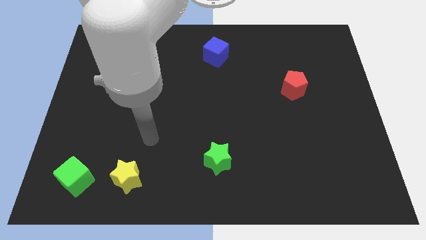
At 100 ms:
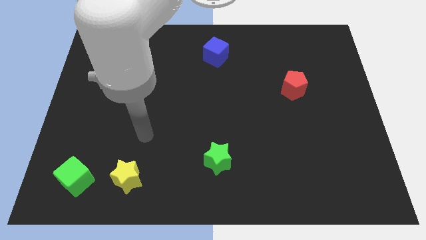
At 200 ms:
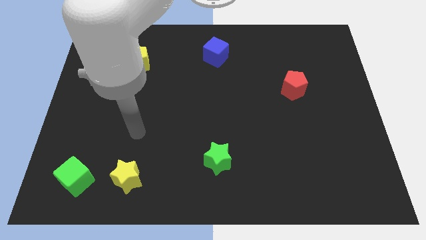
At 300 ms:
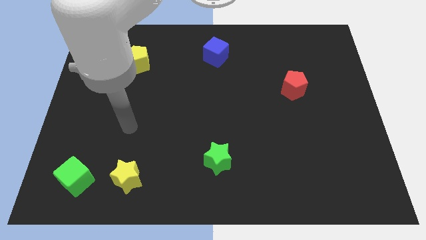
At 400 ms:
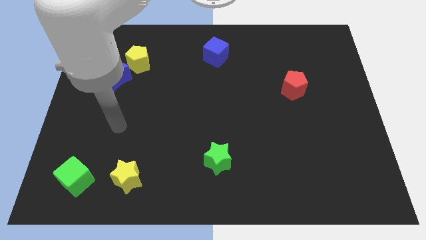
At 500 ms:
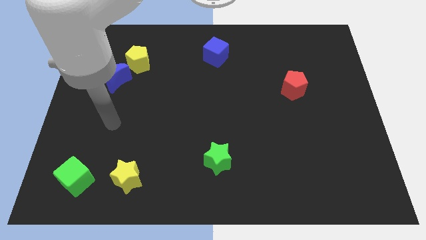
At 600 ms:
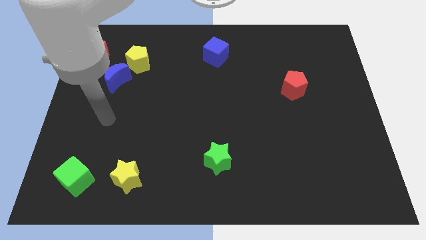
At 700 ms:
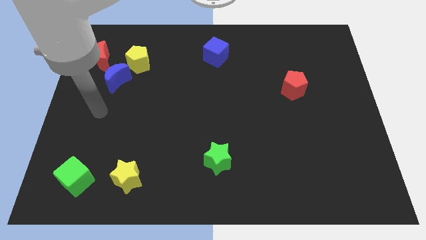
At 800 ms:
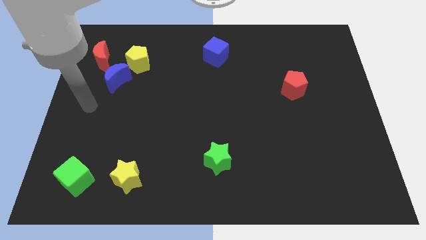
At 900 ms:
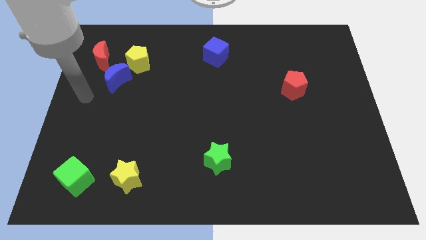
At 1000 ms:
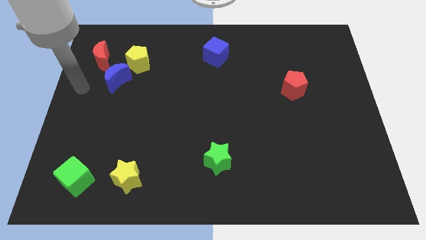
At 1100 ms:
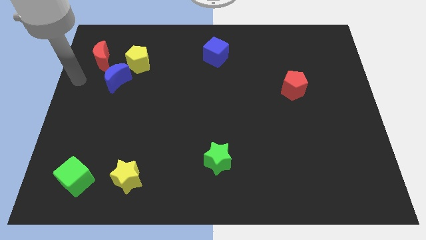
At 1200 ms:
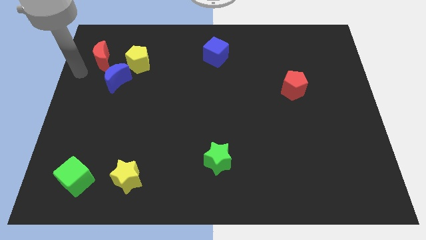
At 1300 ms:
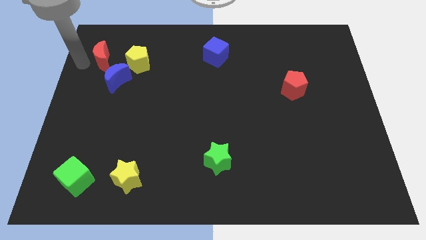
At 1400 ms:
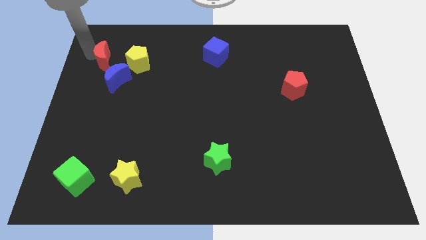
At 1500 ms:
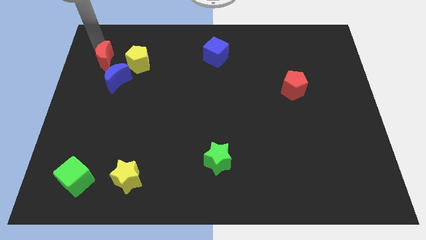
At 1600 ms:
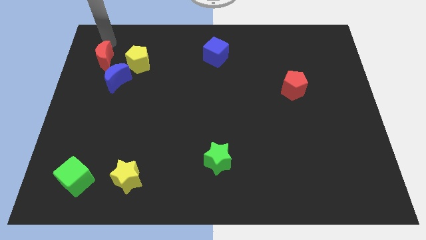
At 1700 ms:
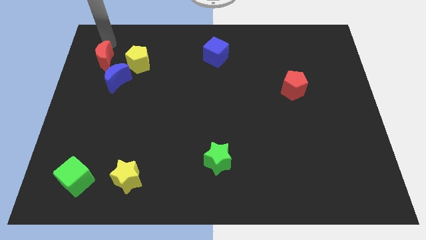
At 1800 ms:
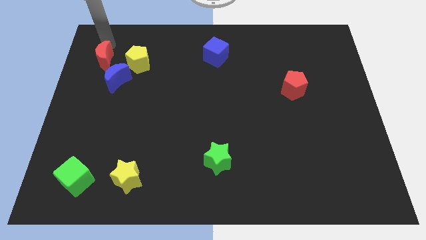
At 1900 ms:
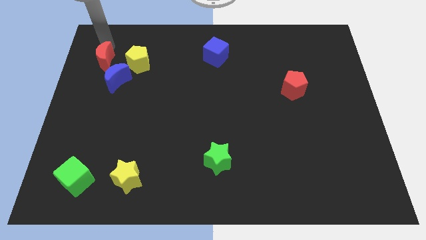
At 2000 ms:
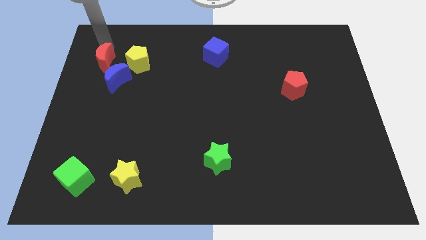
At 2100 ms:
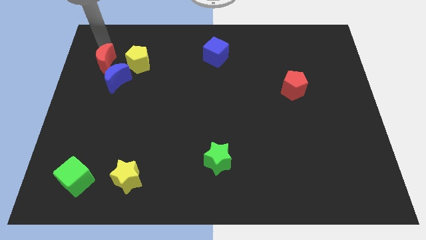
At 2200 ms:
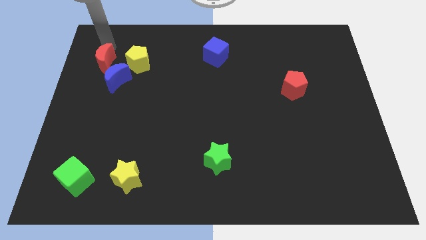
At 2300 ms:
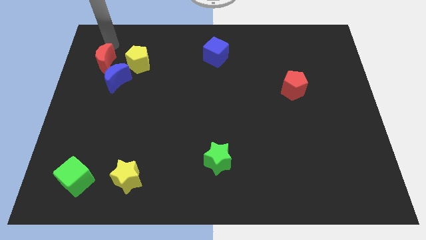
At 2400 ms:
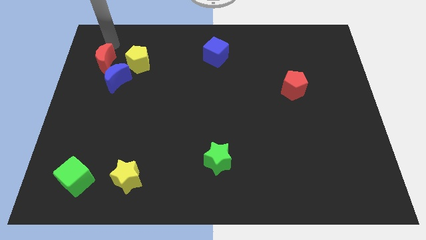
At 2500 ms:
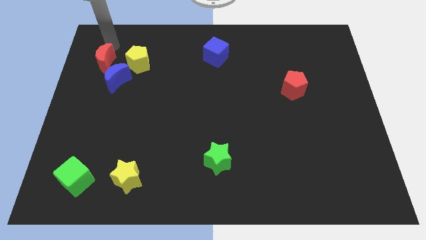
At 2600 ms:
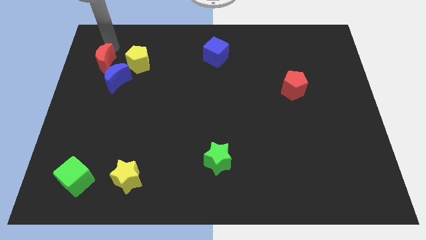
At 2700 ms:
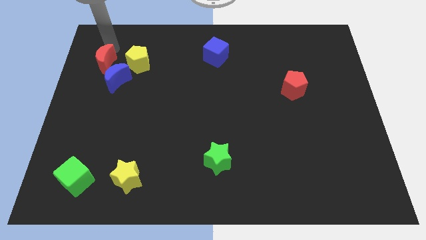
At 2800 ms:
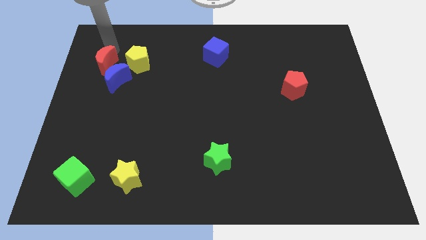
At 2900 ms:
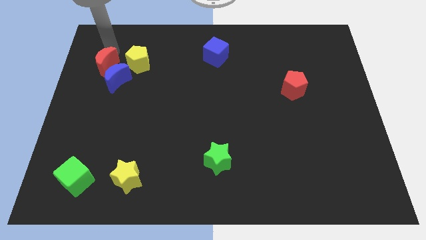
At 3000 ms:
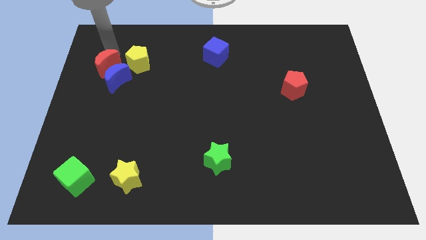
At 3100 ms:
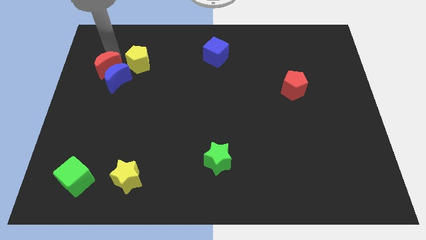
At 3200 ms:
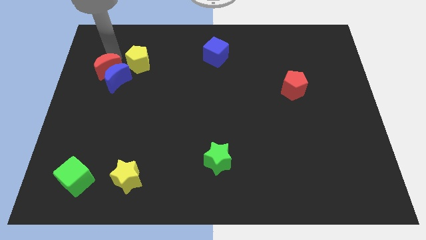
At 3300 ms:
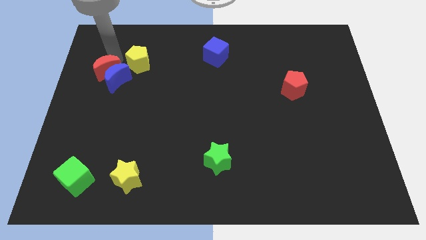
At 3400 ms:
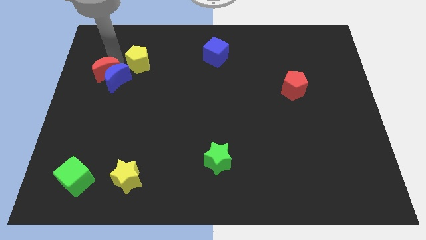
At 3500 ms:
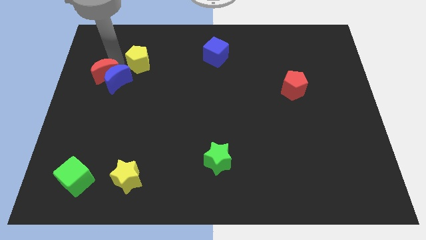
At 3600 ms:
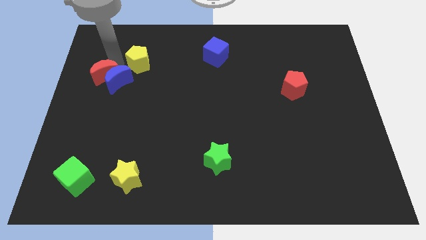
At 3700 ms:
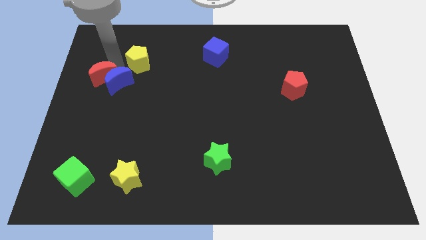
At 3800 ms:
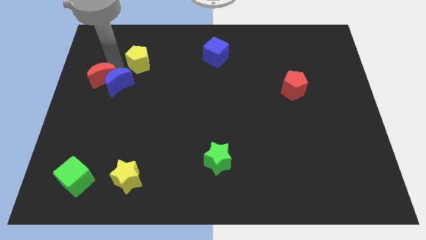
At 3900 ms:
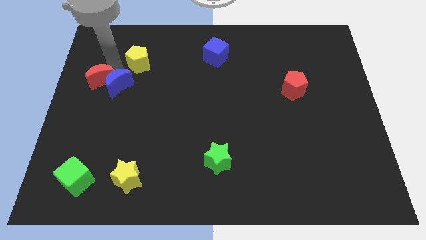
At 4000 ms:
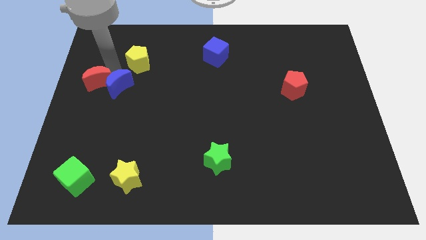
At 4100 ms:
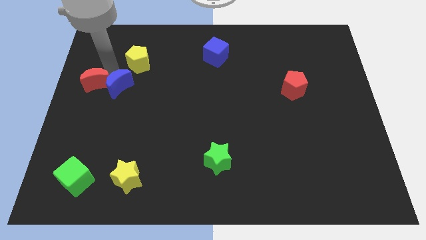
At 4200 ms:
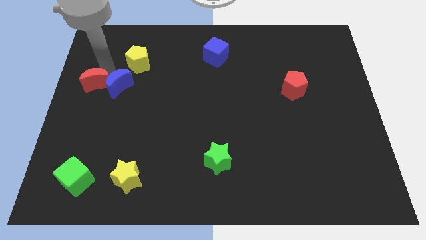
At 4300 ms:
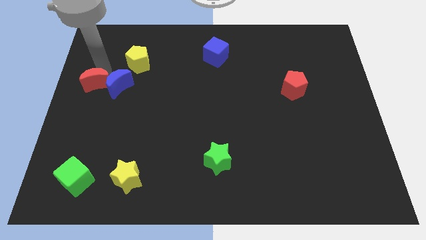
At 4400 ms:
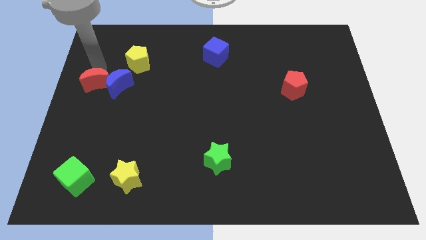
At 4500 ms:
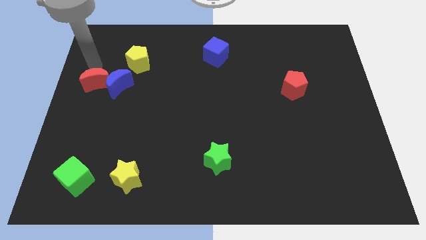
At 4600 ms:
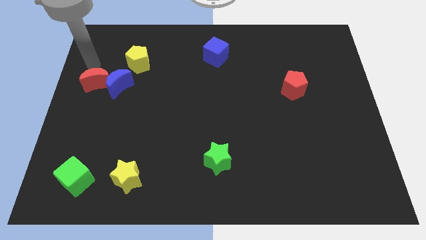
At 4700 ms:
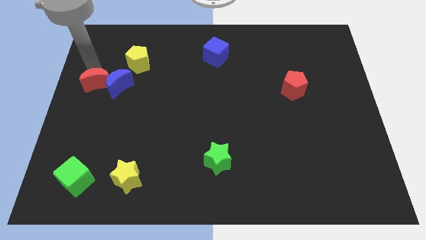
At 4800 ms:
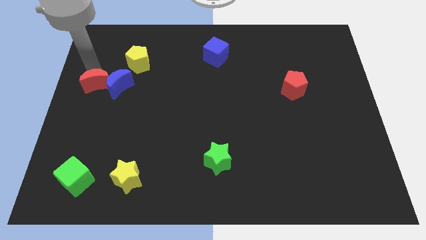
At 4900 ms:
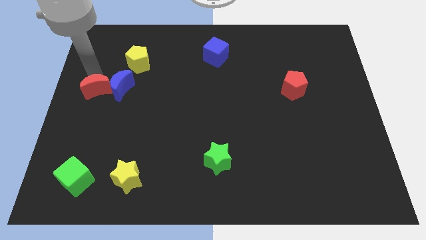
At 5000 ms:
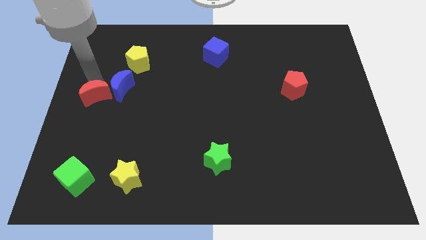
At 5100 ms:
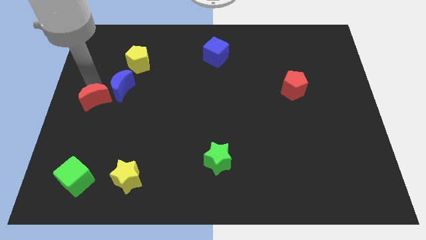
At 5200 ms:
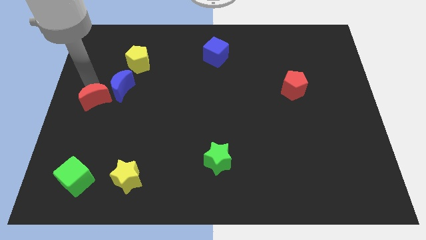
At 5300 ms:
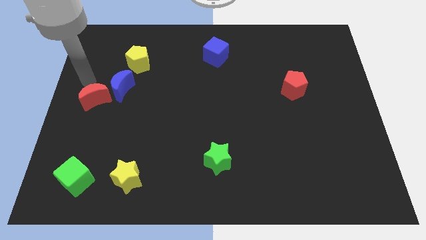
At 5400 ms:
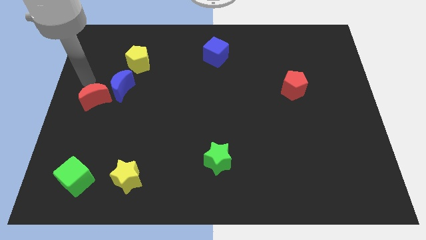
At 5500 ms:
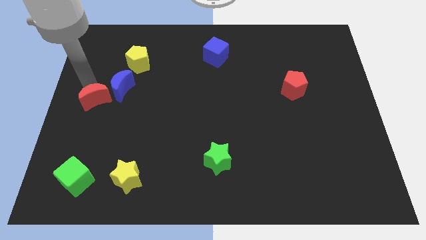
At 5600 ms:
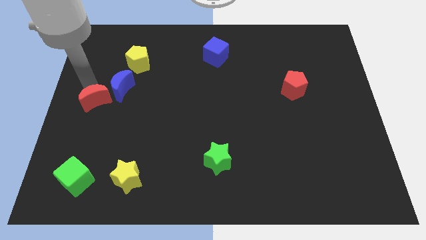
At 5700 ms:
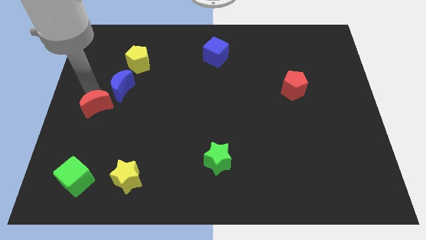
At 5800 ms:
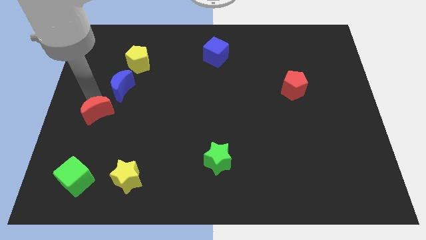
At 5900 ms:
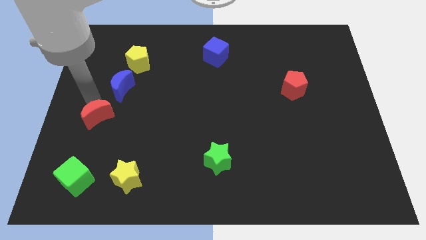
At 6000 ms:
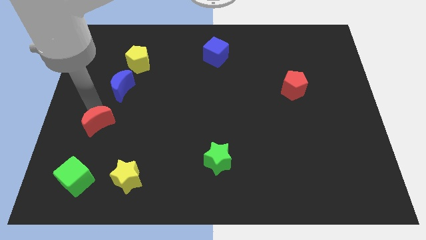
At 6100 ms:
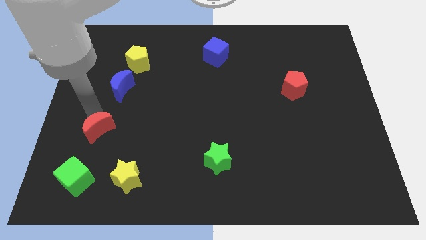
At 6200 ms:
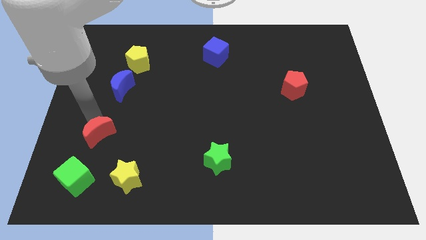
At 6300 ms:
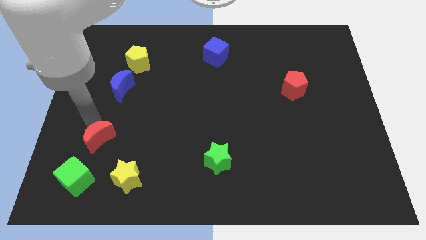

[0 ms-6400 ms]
push the red moon to the top left of the yellow star

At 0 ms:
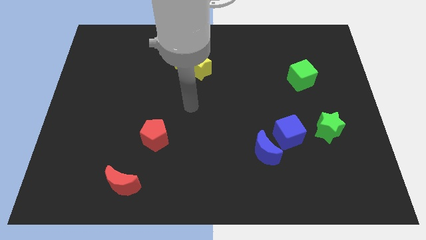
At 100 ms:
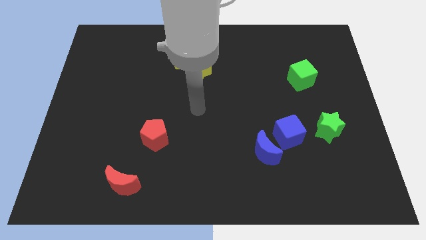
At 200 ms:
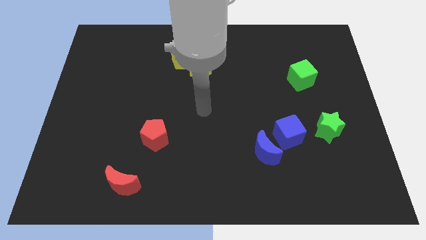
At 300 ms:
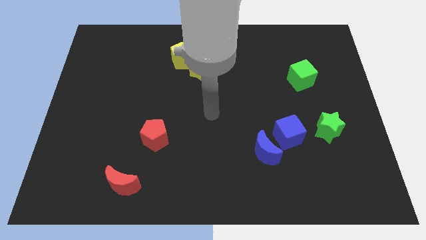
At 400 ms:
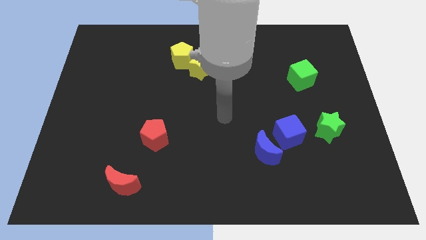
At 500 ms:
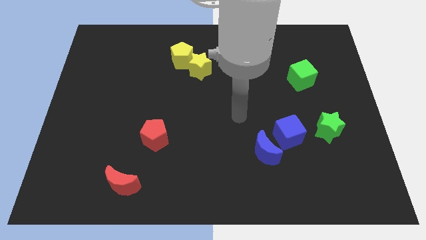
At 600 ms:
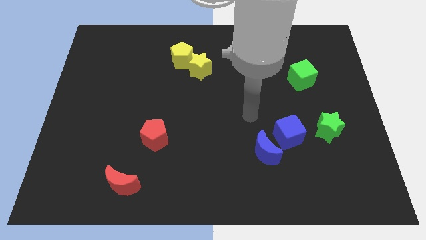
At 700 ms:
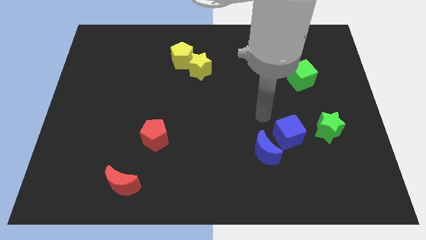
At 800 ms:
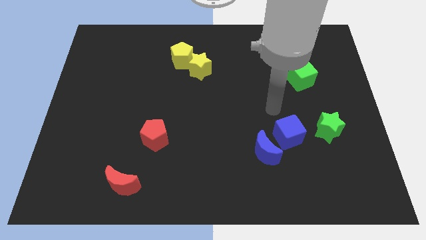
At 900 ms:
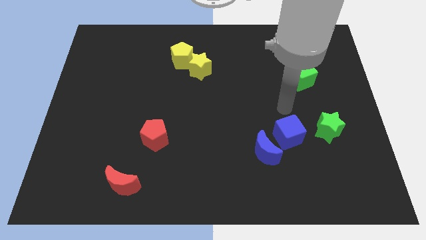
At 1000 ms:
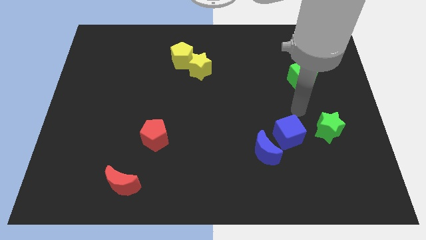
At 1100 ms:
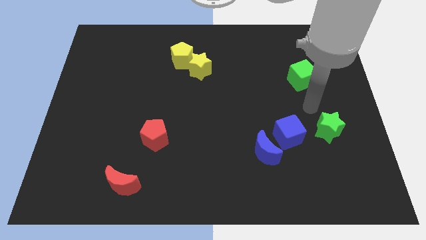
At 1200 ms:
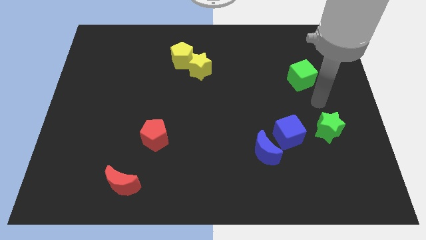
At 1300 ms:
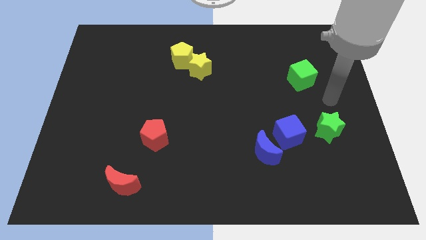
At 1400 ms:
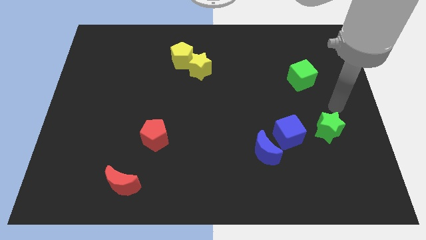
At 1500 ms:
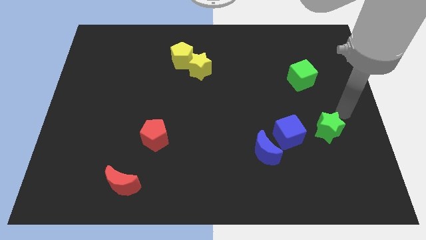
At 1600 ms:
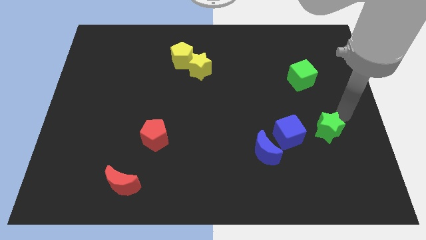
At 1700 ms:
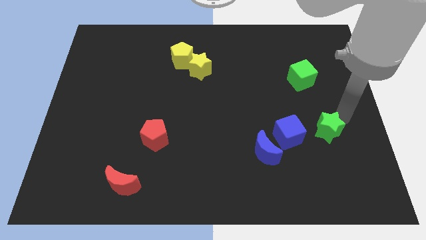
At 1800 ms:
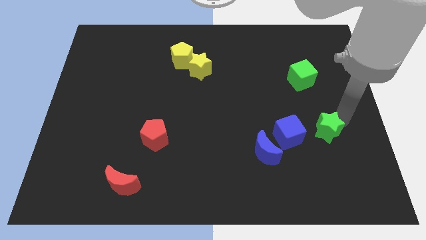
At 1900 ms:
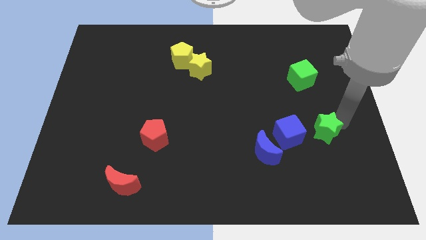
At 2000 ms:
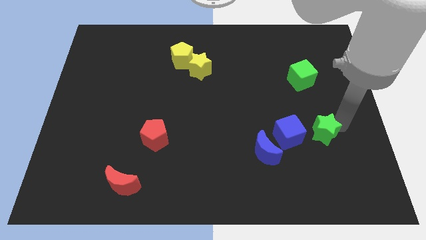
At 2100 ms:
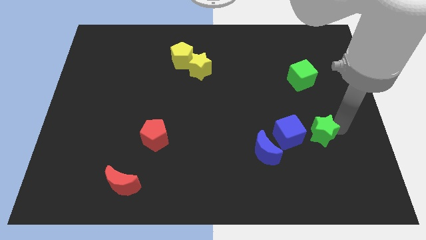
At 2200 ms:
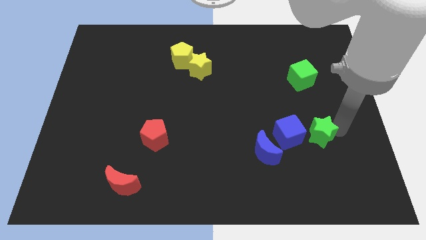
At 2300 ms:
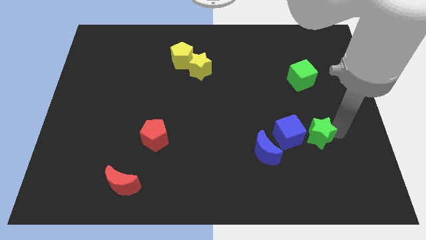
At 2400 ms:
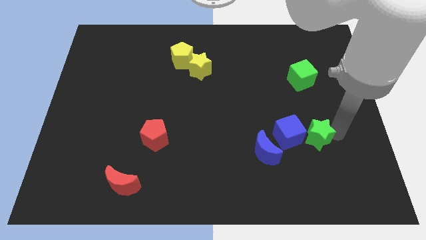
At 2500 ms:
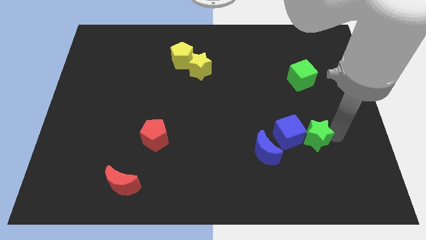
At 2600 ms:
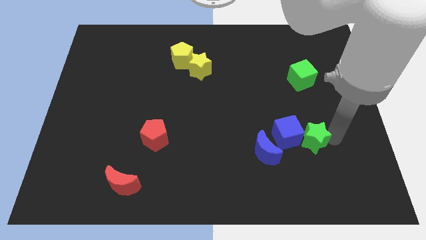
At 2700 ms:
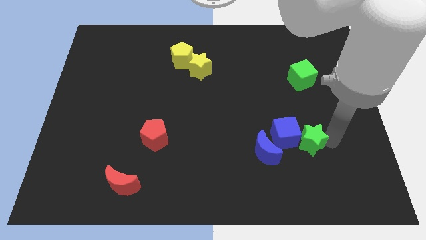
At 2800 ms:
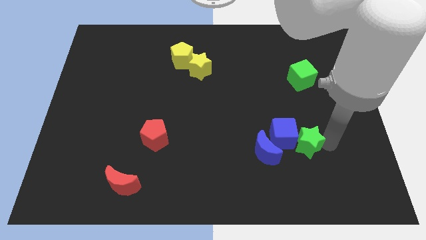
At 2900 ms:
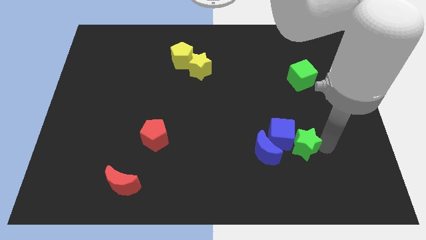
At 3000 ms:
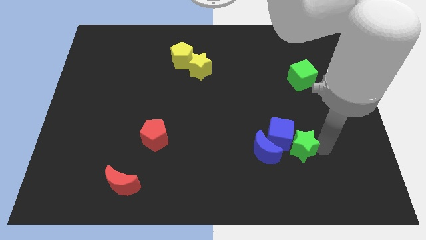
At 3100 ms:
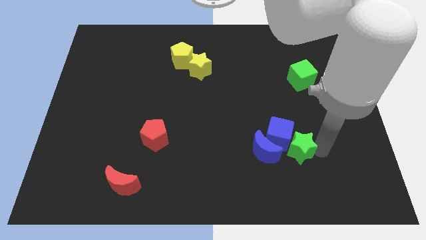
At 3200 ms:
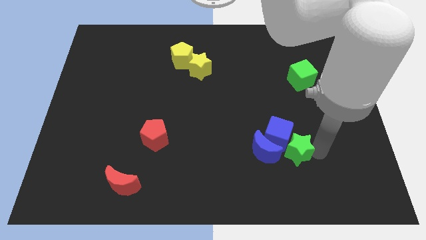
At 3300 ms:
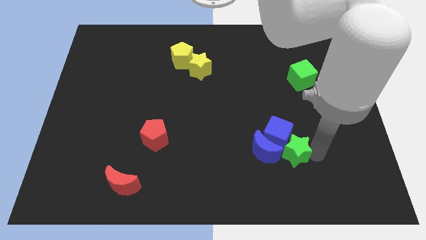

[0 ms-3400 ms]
move the green star to the bottom right side of the blue moon
